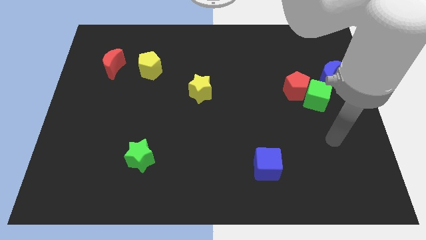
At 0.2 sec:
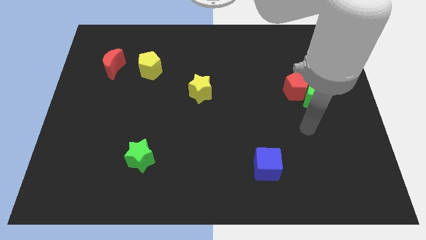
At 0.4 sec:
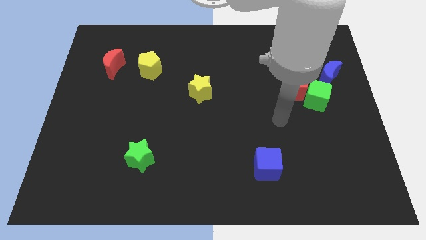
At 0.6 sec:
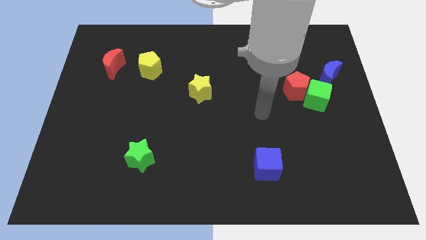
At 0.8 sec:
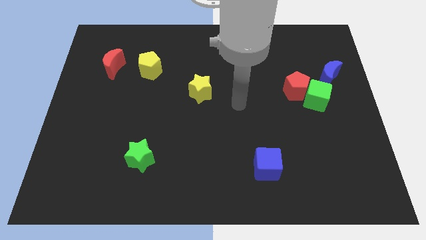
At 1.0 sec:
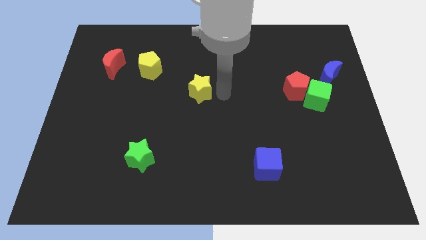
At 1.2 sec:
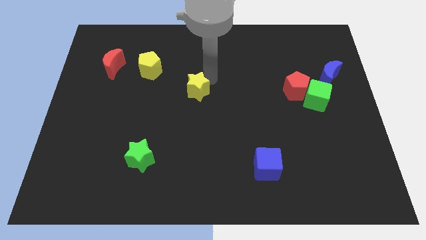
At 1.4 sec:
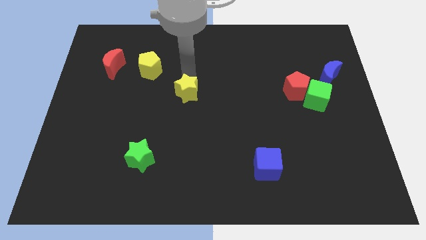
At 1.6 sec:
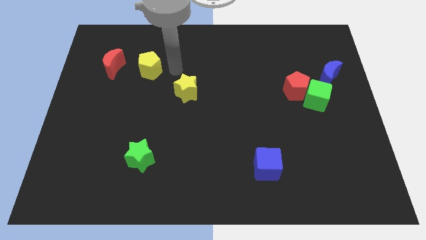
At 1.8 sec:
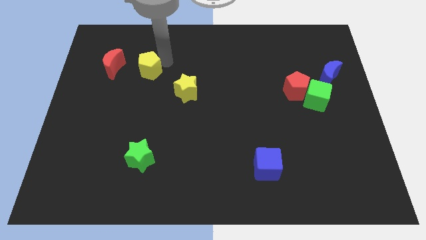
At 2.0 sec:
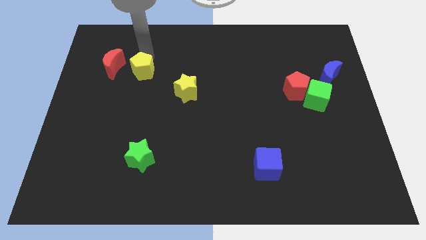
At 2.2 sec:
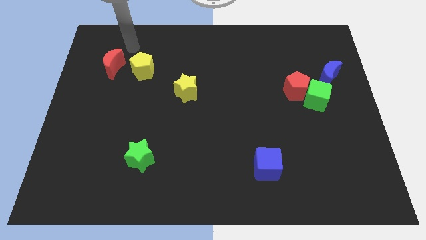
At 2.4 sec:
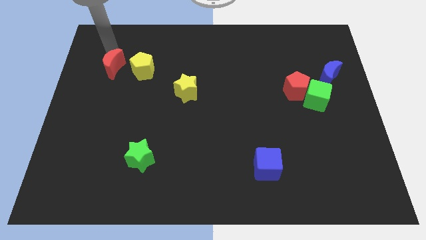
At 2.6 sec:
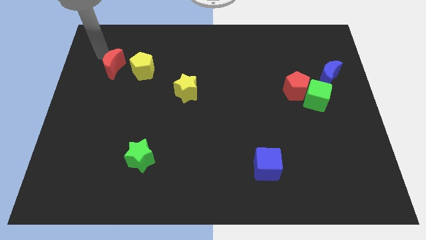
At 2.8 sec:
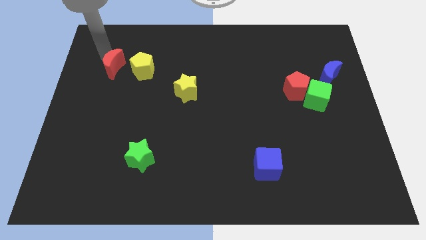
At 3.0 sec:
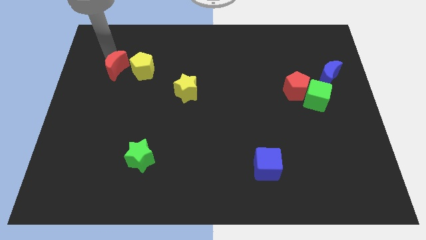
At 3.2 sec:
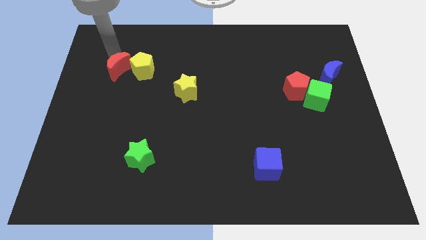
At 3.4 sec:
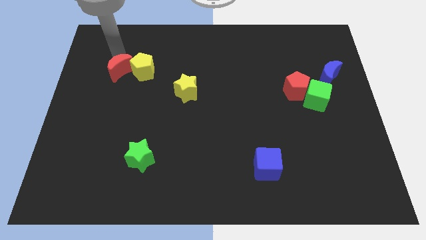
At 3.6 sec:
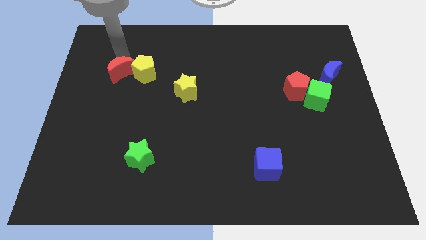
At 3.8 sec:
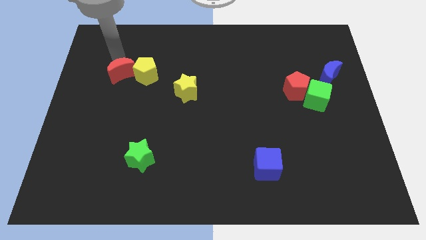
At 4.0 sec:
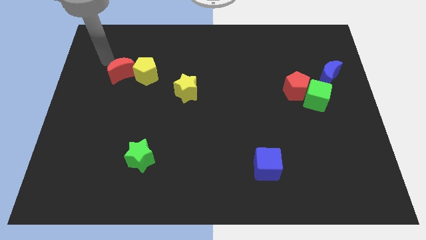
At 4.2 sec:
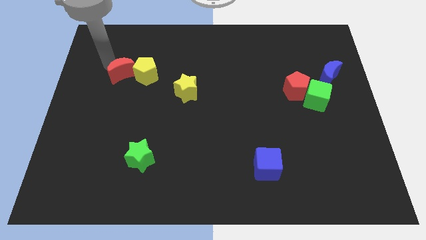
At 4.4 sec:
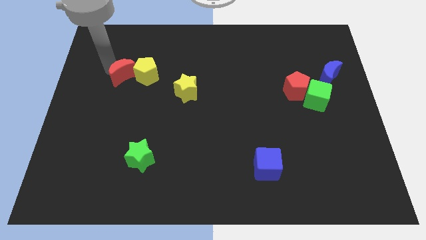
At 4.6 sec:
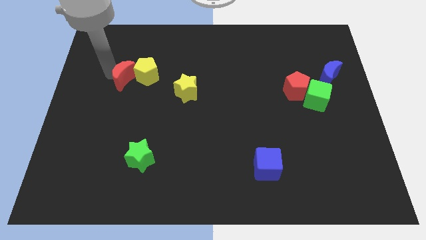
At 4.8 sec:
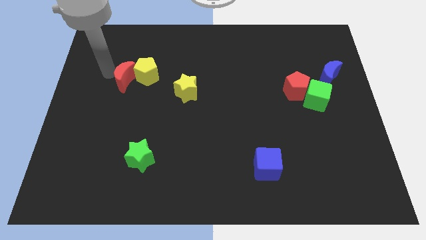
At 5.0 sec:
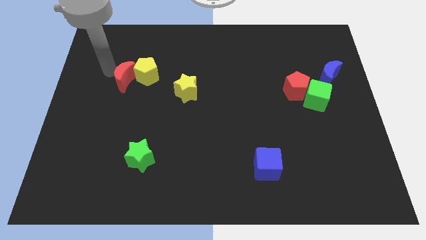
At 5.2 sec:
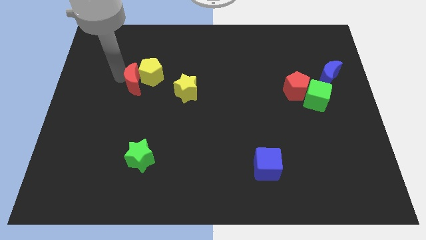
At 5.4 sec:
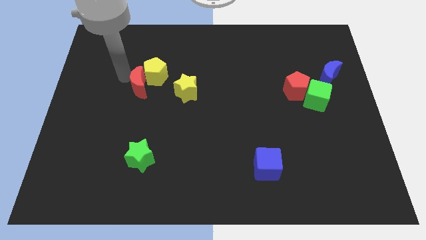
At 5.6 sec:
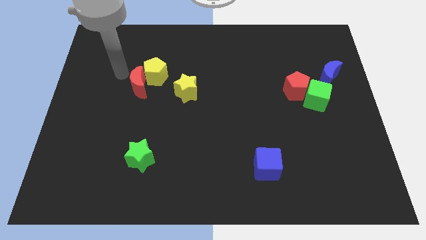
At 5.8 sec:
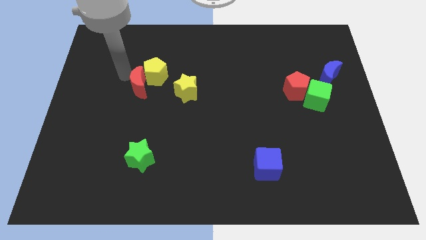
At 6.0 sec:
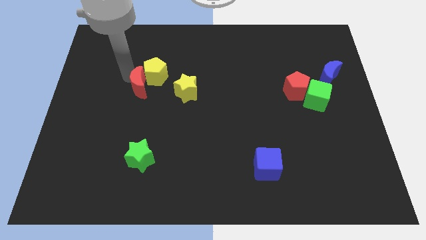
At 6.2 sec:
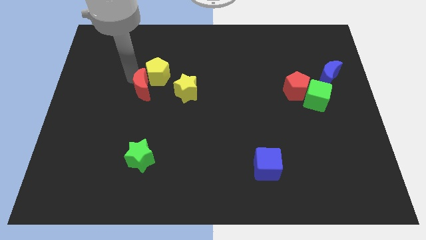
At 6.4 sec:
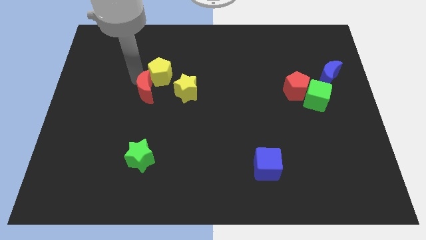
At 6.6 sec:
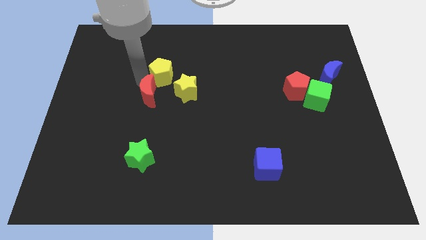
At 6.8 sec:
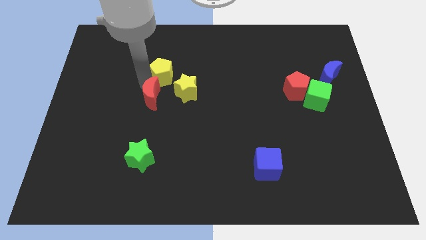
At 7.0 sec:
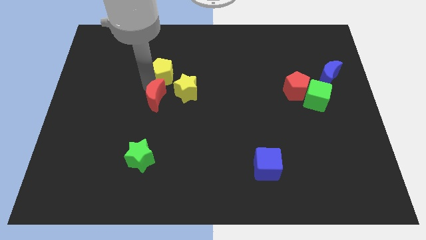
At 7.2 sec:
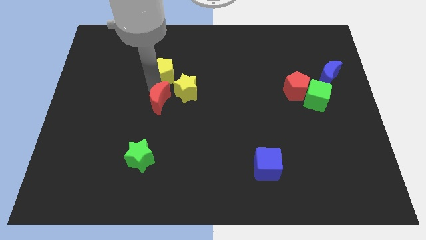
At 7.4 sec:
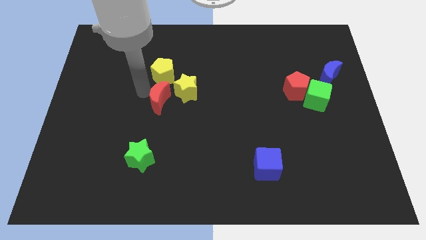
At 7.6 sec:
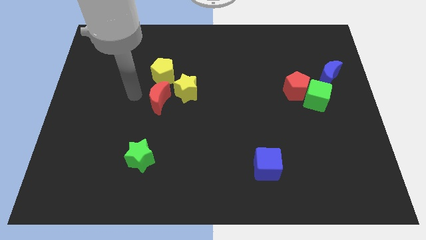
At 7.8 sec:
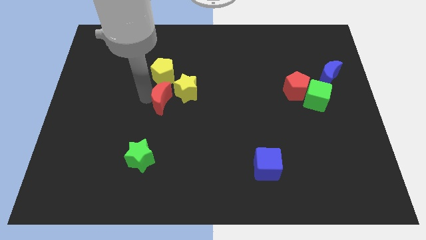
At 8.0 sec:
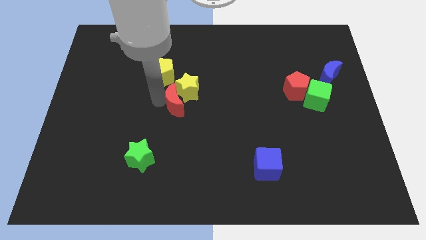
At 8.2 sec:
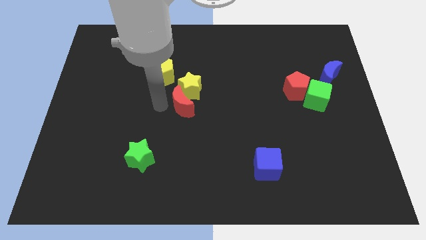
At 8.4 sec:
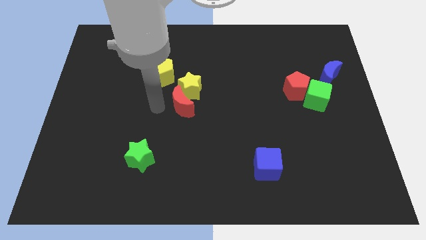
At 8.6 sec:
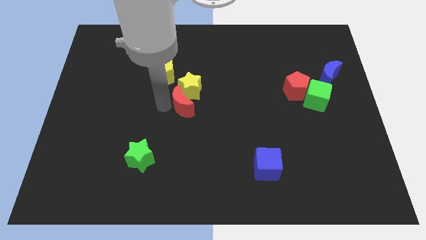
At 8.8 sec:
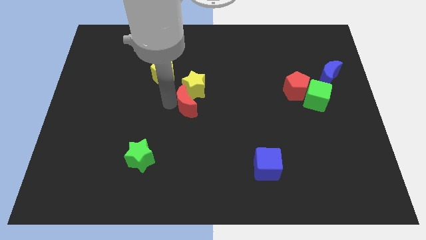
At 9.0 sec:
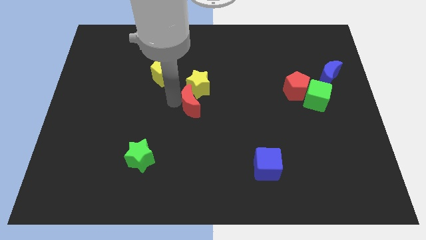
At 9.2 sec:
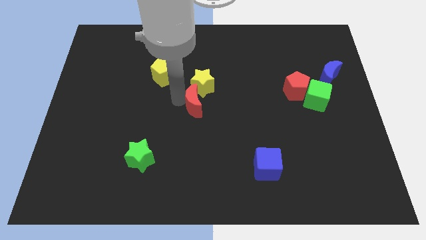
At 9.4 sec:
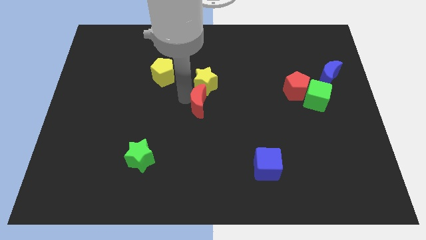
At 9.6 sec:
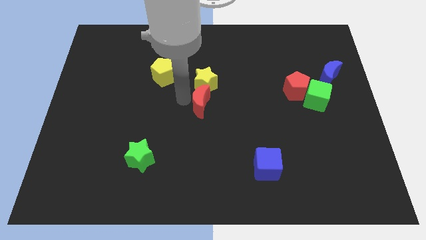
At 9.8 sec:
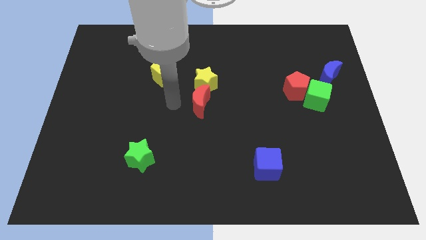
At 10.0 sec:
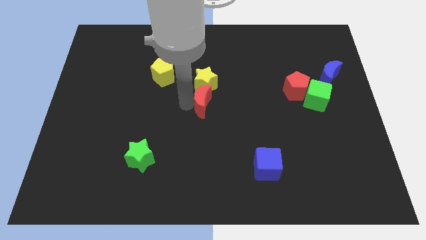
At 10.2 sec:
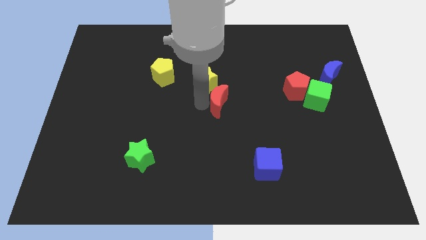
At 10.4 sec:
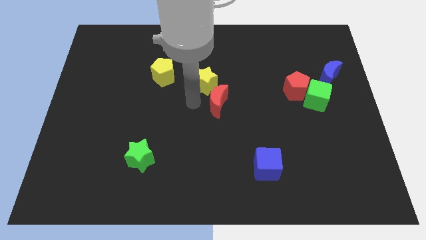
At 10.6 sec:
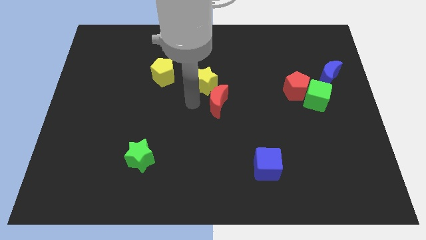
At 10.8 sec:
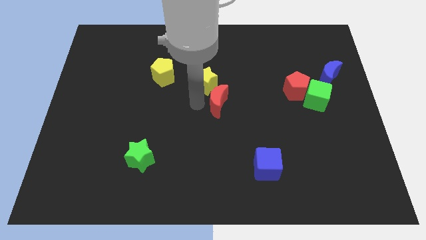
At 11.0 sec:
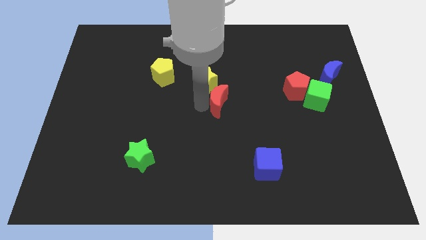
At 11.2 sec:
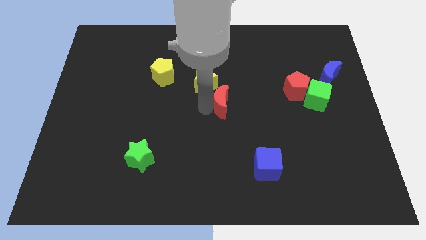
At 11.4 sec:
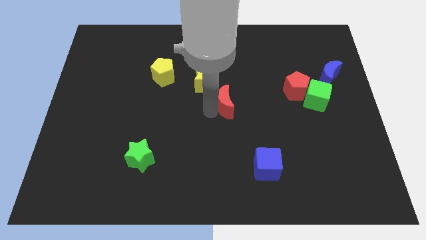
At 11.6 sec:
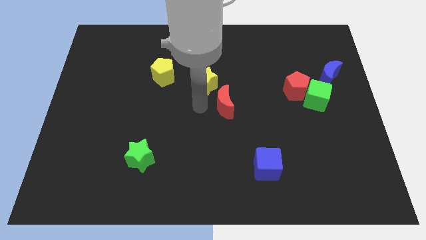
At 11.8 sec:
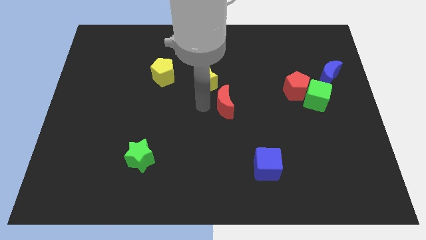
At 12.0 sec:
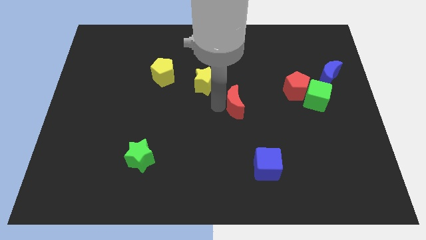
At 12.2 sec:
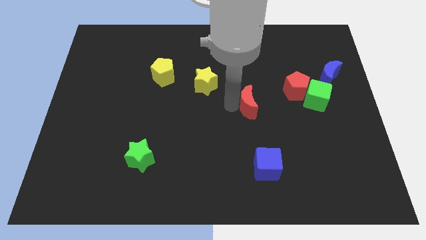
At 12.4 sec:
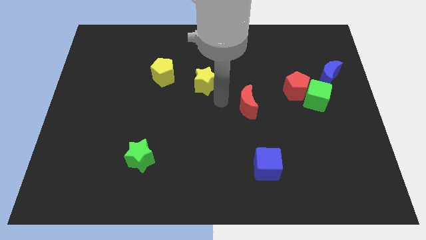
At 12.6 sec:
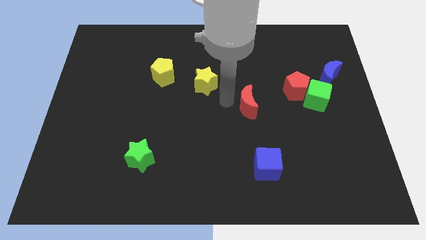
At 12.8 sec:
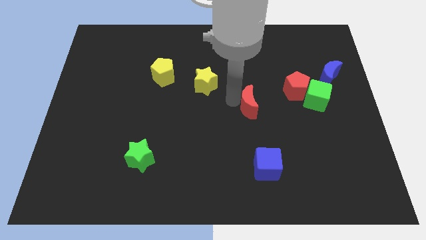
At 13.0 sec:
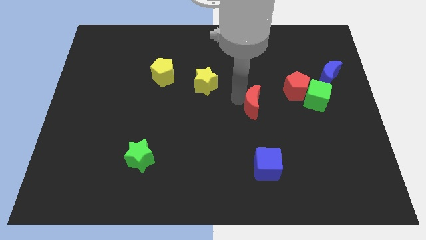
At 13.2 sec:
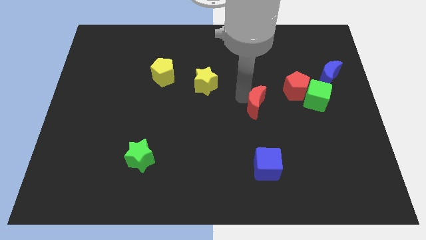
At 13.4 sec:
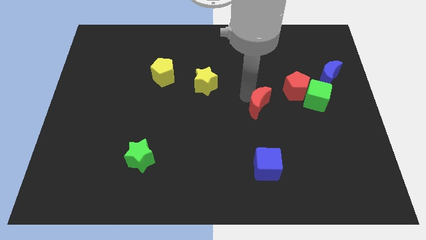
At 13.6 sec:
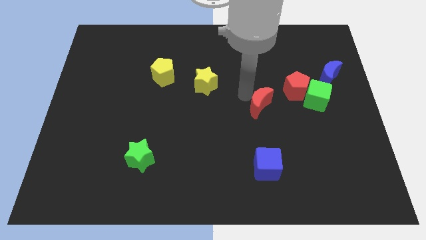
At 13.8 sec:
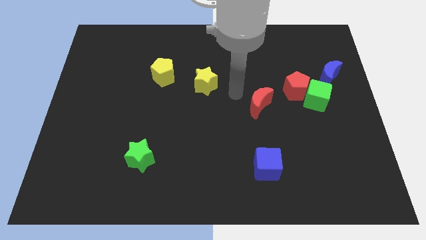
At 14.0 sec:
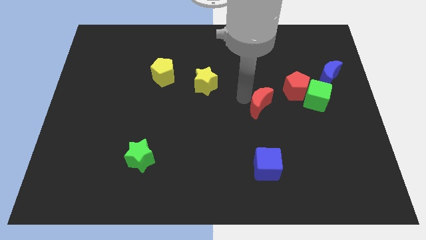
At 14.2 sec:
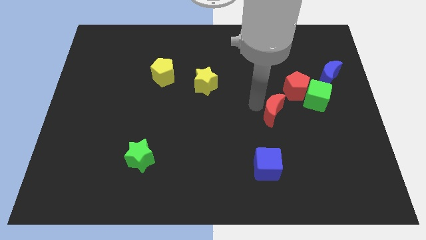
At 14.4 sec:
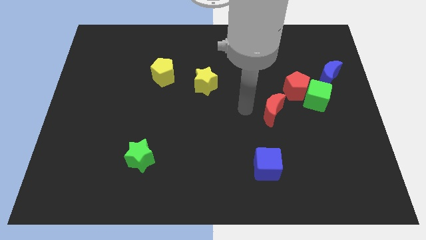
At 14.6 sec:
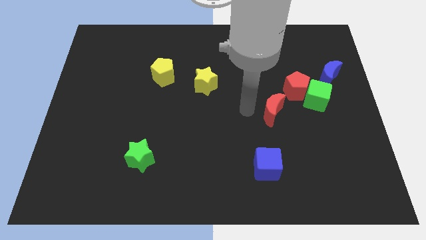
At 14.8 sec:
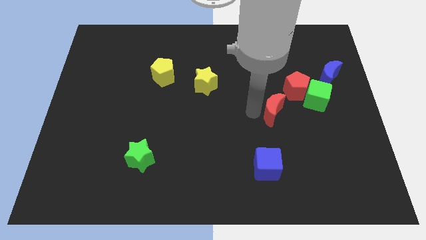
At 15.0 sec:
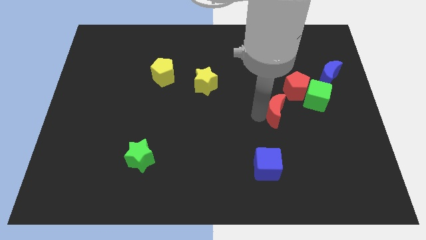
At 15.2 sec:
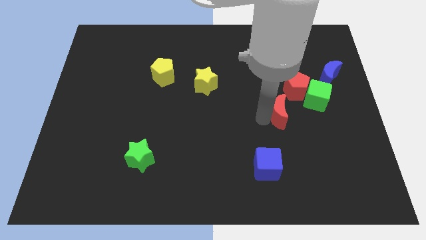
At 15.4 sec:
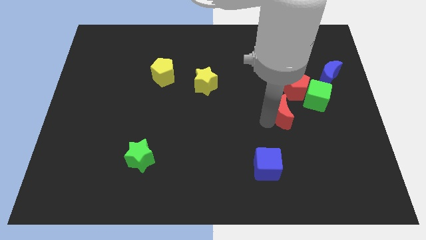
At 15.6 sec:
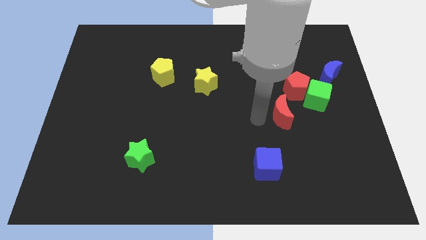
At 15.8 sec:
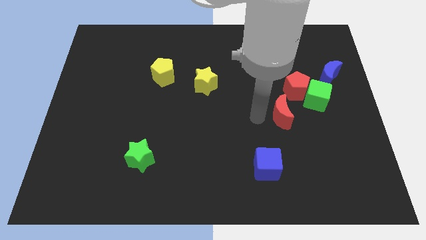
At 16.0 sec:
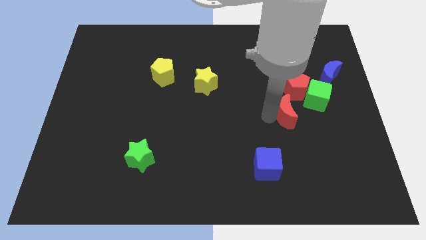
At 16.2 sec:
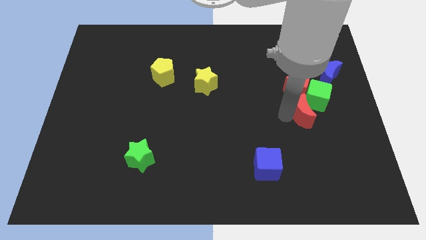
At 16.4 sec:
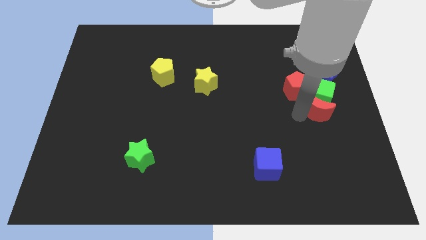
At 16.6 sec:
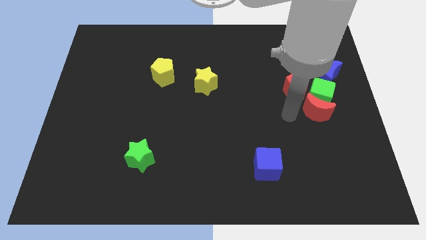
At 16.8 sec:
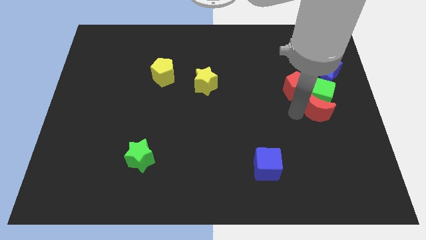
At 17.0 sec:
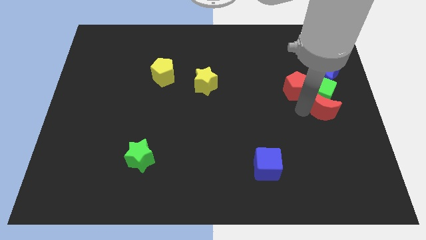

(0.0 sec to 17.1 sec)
push the red moon to the right side
